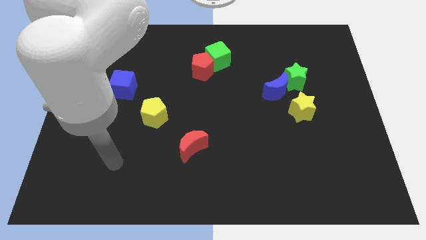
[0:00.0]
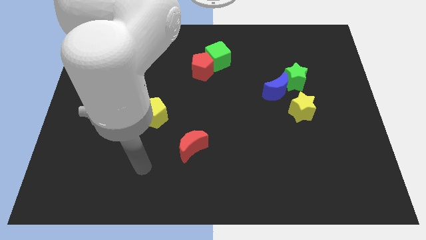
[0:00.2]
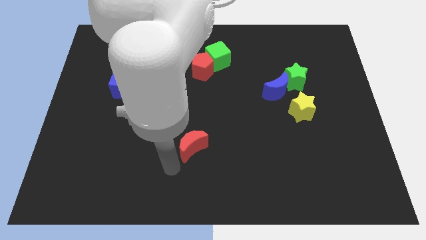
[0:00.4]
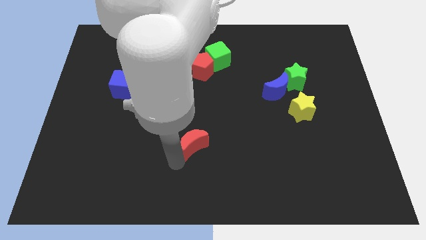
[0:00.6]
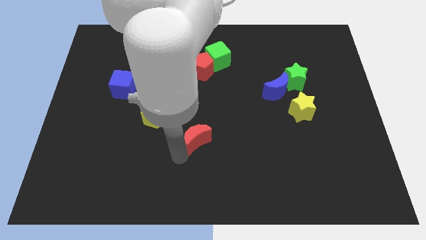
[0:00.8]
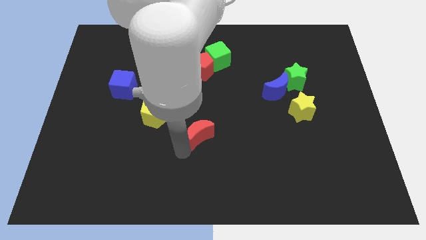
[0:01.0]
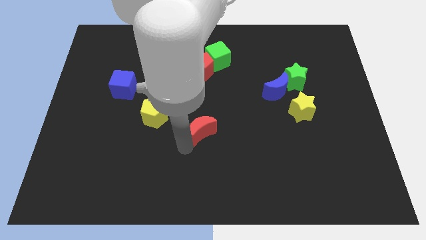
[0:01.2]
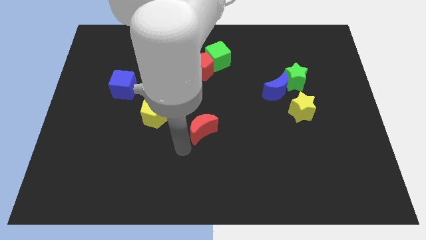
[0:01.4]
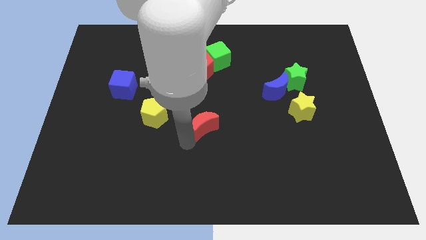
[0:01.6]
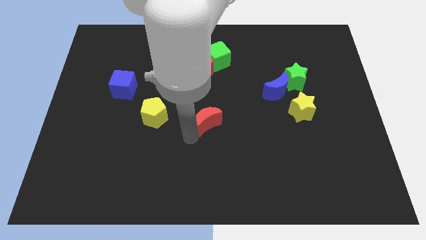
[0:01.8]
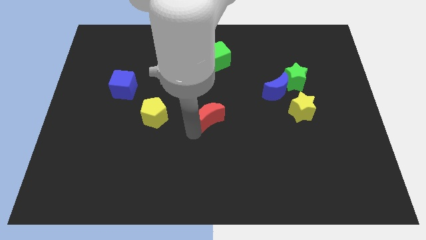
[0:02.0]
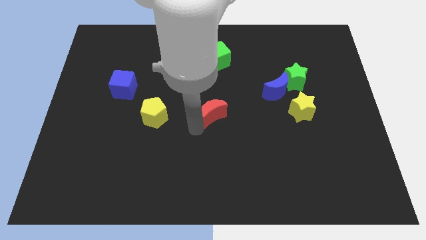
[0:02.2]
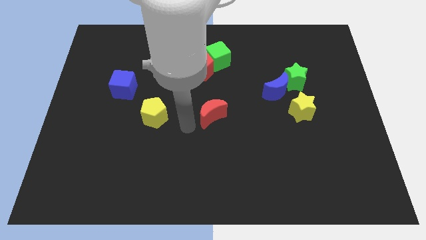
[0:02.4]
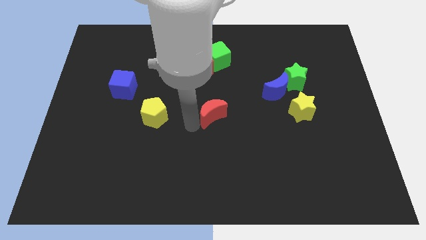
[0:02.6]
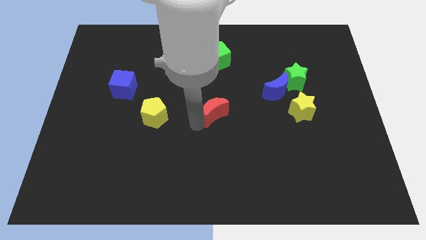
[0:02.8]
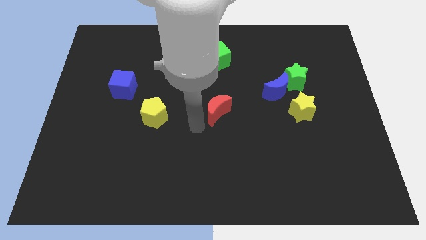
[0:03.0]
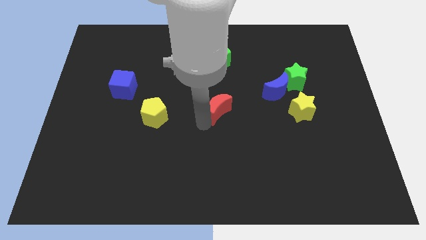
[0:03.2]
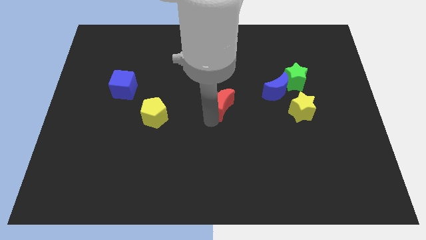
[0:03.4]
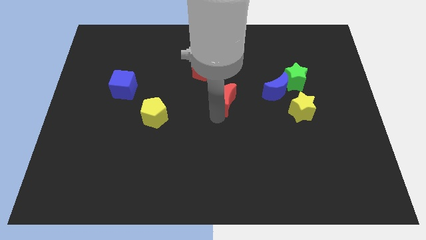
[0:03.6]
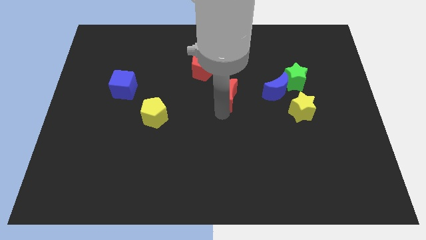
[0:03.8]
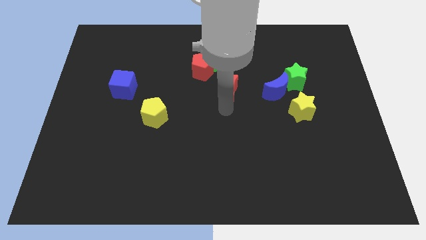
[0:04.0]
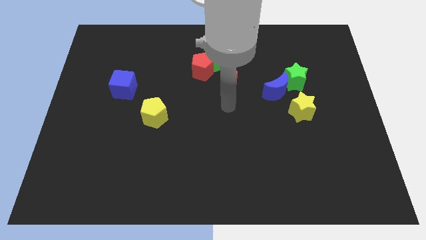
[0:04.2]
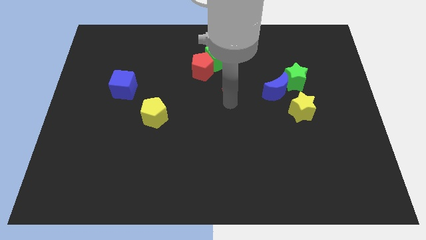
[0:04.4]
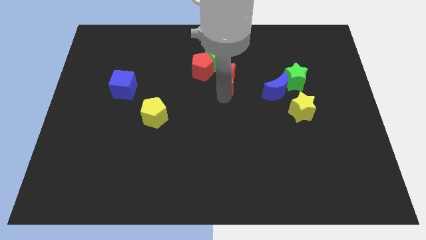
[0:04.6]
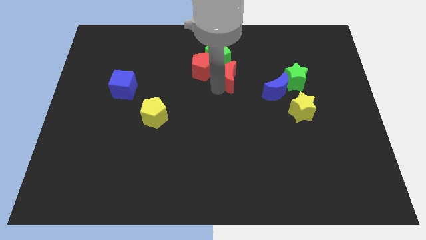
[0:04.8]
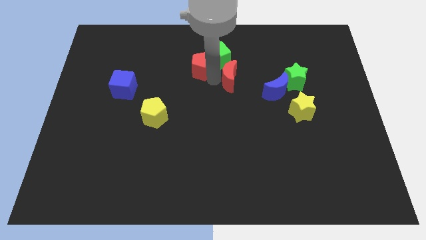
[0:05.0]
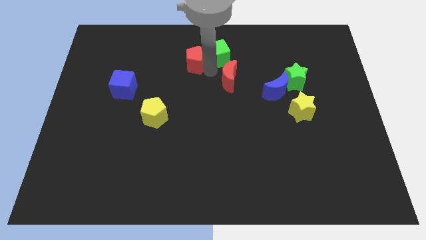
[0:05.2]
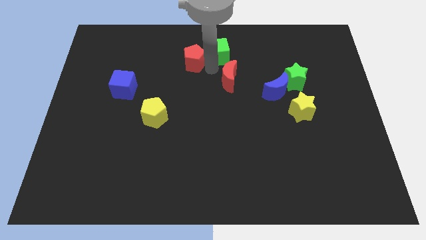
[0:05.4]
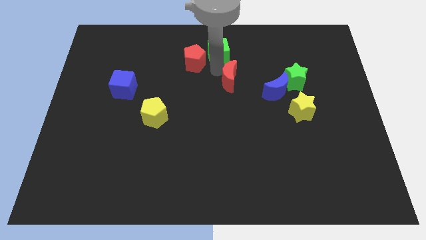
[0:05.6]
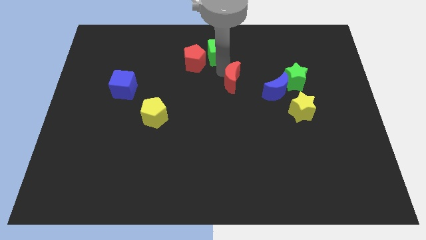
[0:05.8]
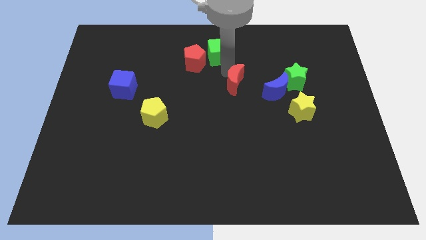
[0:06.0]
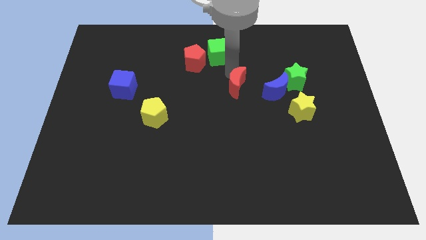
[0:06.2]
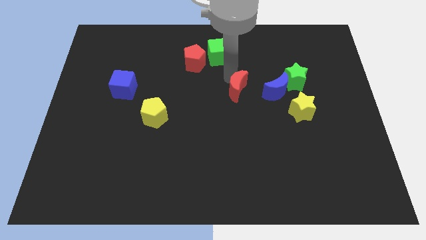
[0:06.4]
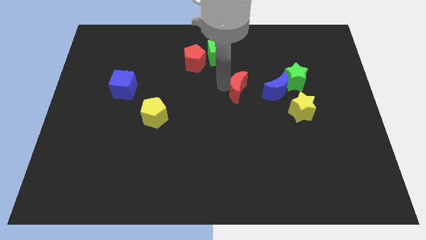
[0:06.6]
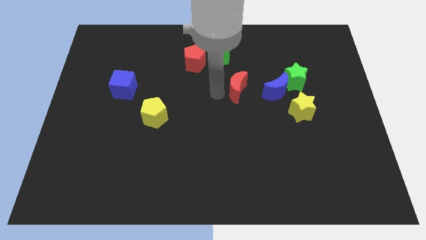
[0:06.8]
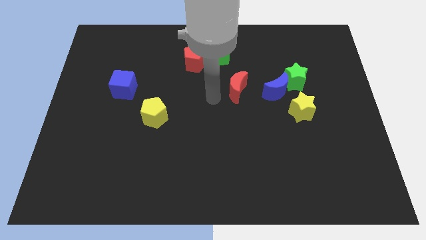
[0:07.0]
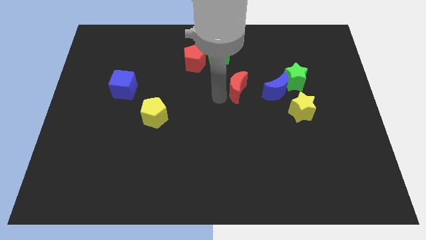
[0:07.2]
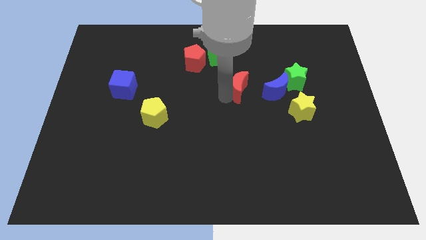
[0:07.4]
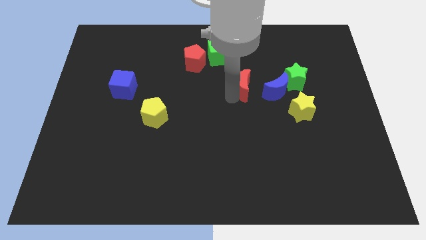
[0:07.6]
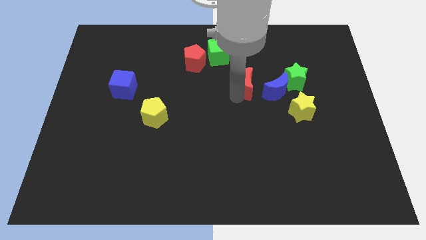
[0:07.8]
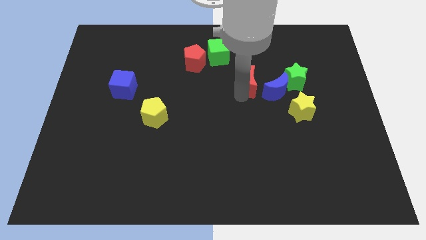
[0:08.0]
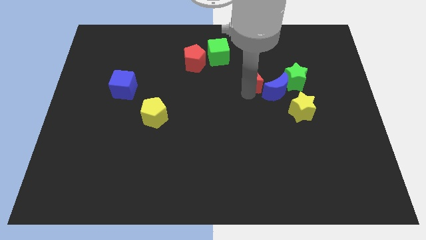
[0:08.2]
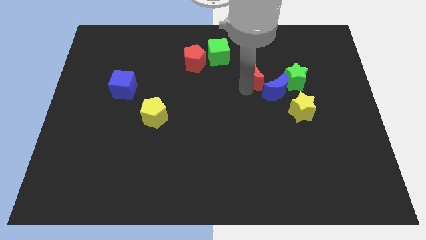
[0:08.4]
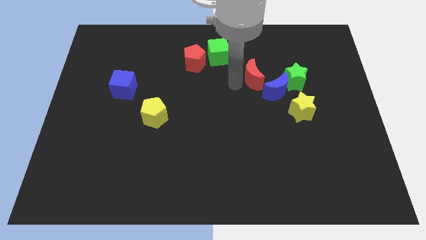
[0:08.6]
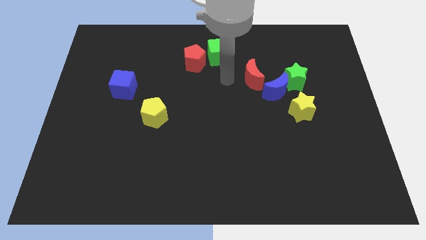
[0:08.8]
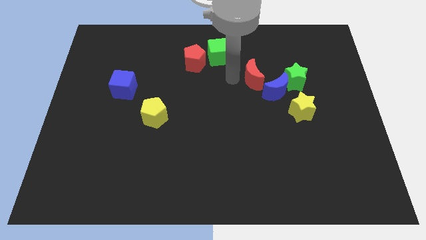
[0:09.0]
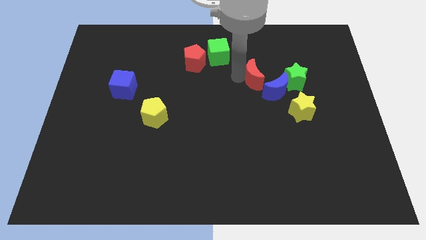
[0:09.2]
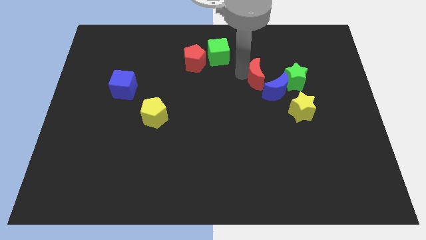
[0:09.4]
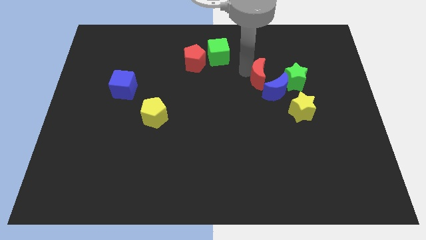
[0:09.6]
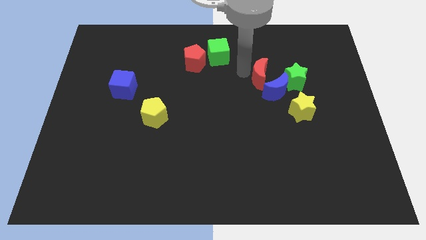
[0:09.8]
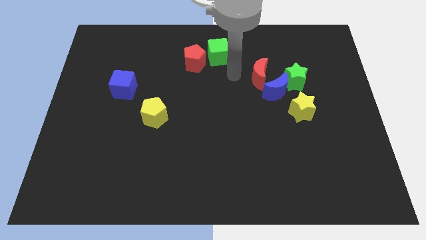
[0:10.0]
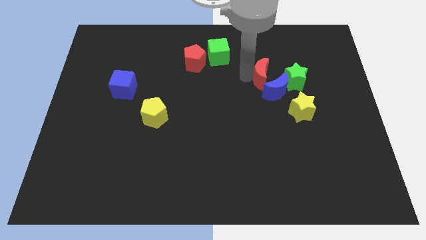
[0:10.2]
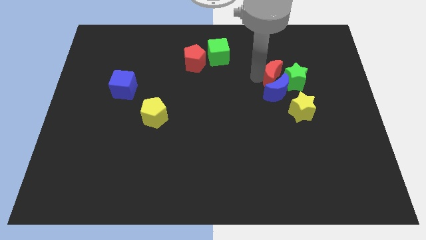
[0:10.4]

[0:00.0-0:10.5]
slide the red moon close to the green star

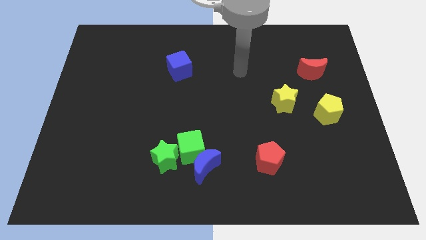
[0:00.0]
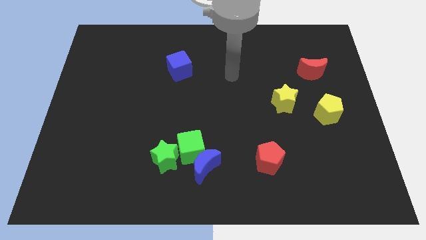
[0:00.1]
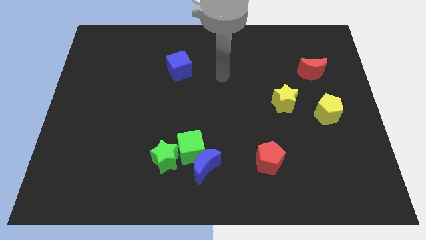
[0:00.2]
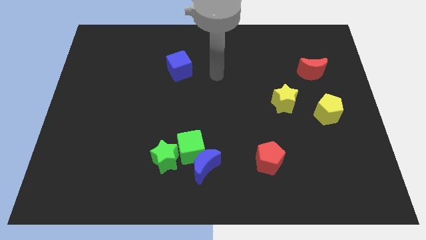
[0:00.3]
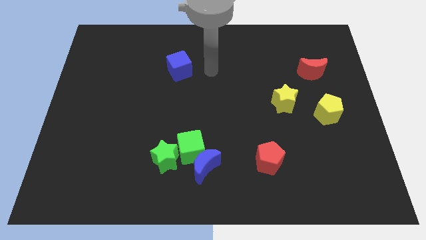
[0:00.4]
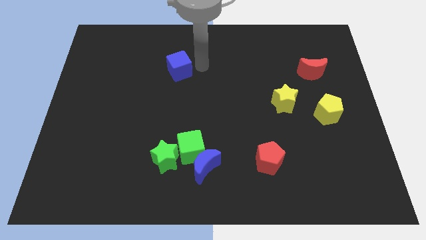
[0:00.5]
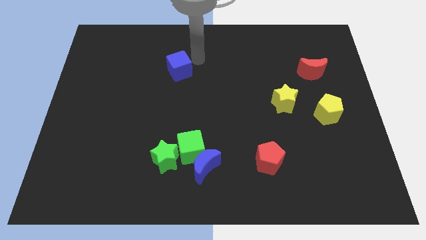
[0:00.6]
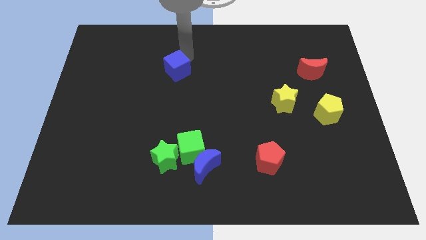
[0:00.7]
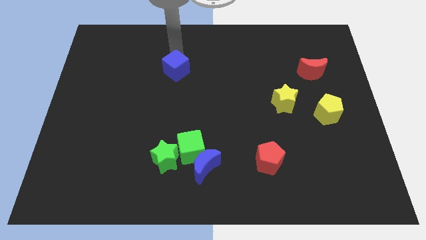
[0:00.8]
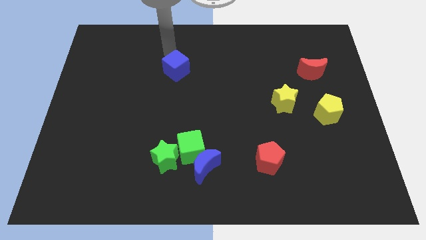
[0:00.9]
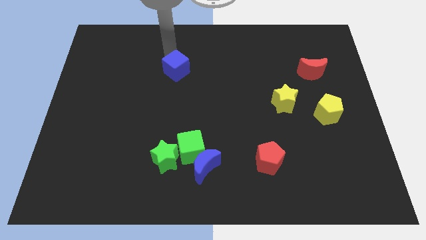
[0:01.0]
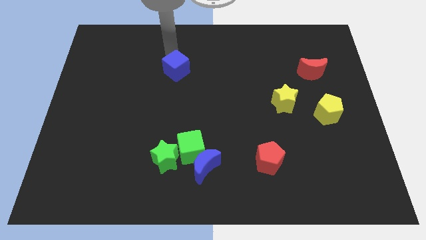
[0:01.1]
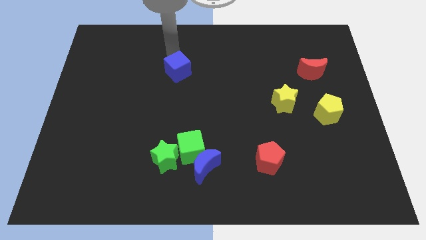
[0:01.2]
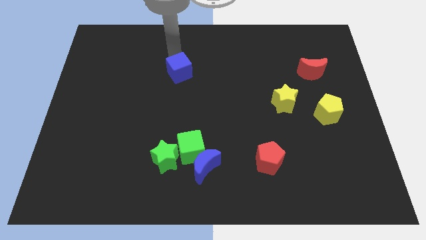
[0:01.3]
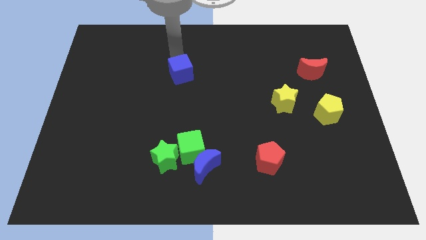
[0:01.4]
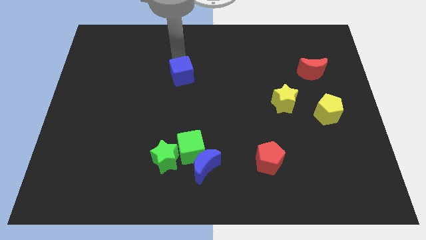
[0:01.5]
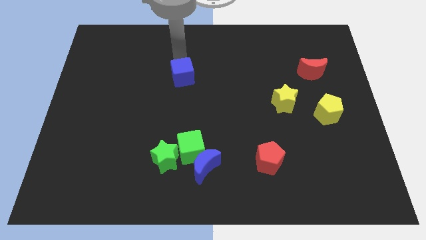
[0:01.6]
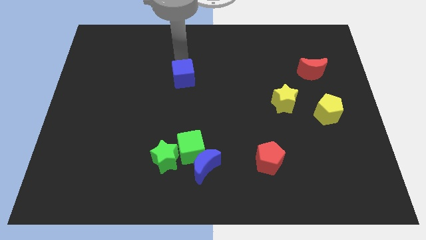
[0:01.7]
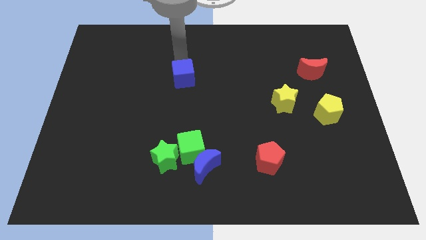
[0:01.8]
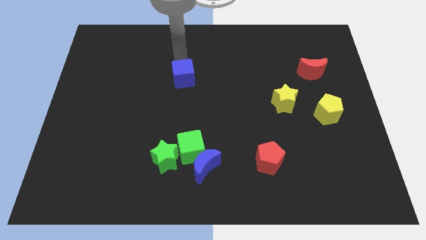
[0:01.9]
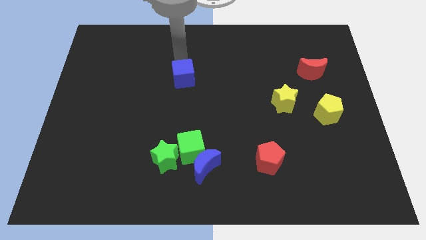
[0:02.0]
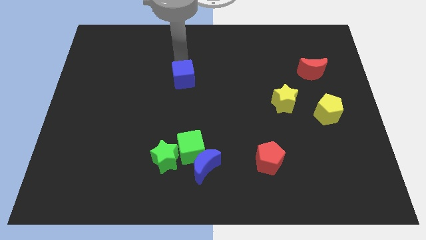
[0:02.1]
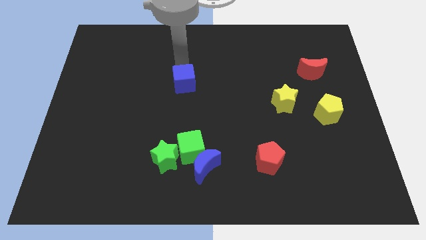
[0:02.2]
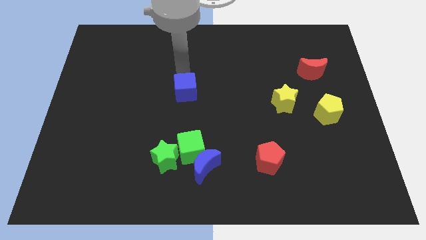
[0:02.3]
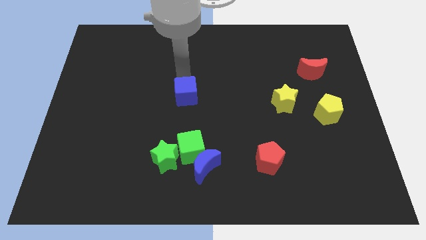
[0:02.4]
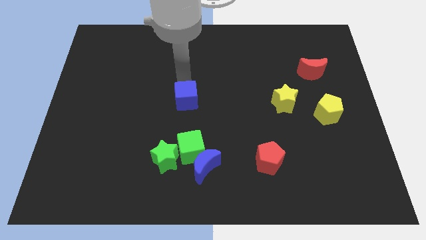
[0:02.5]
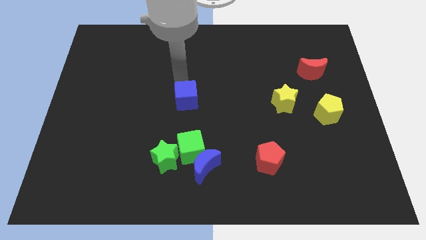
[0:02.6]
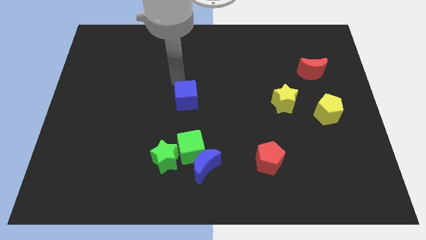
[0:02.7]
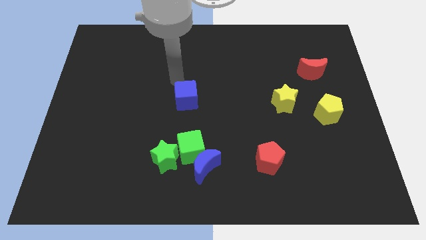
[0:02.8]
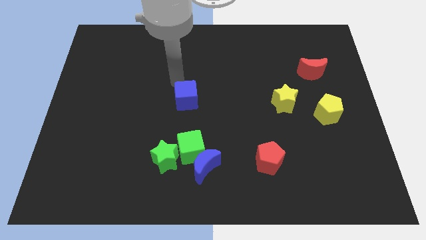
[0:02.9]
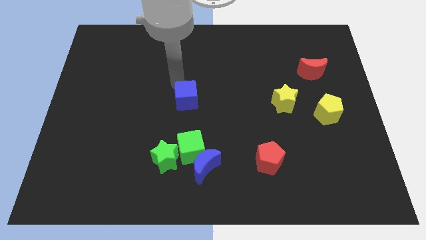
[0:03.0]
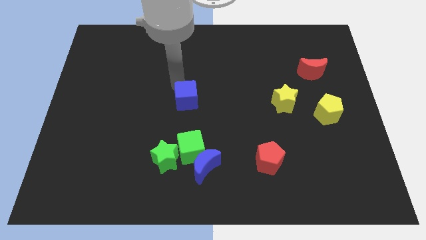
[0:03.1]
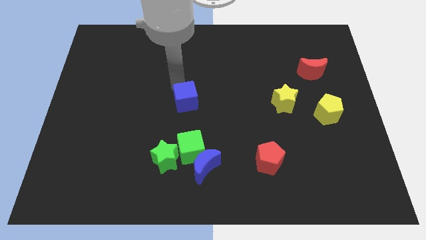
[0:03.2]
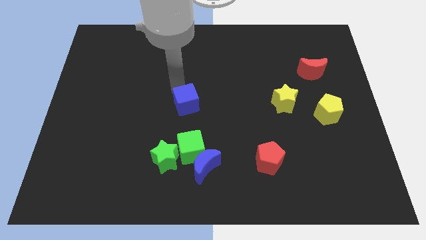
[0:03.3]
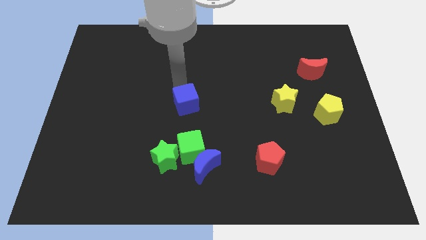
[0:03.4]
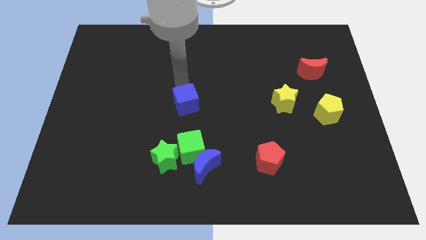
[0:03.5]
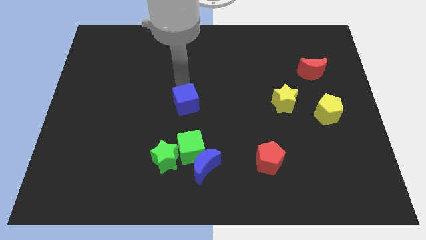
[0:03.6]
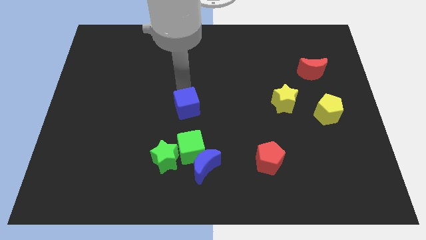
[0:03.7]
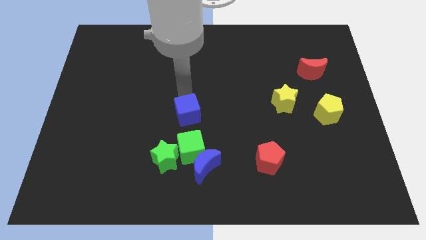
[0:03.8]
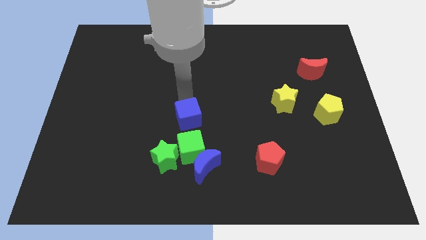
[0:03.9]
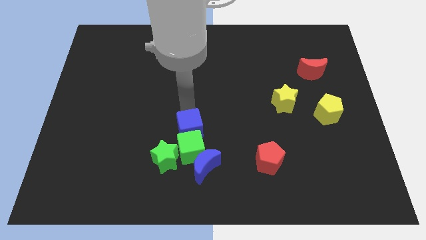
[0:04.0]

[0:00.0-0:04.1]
put the blue cube next to the green cube
